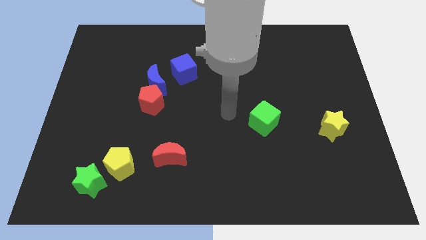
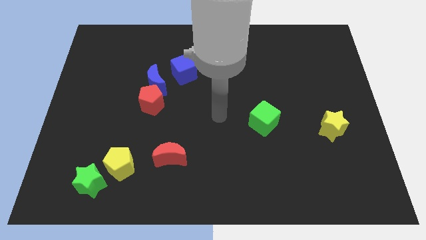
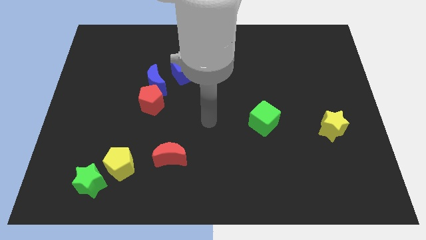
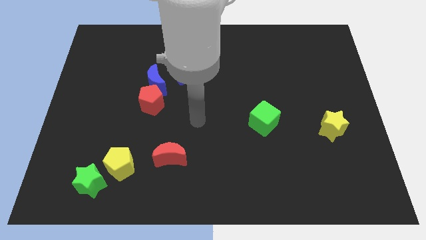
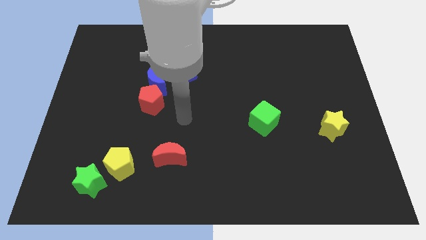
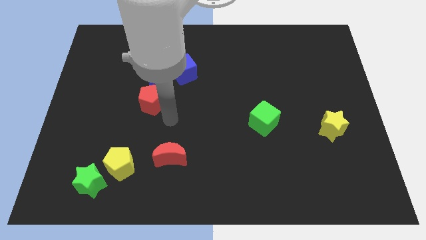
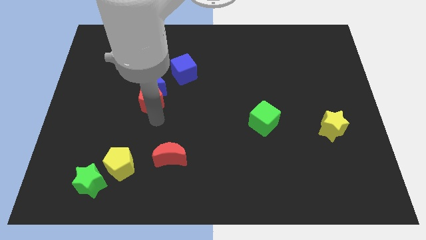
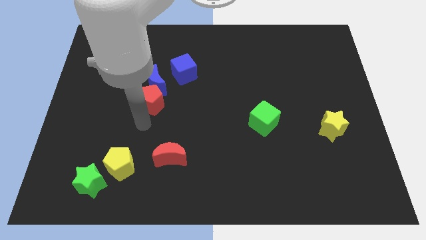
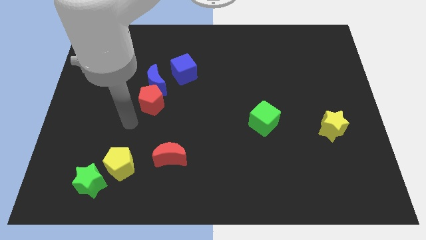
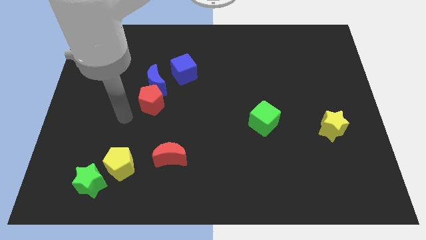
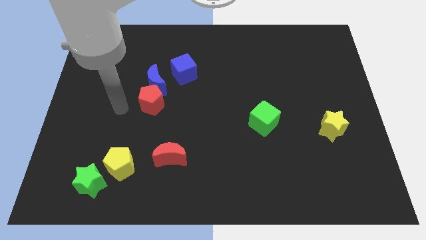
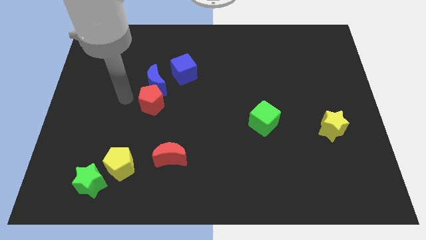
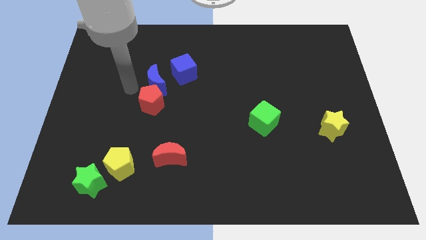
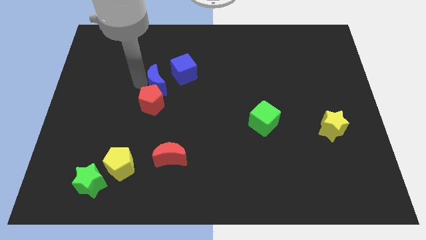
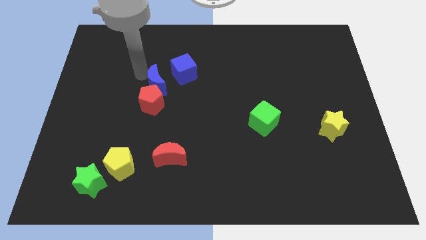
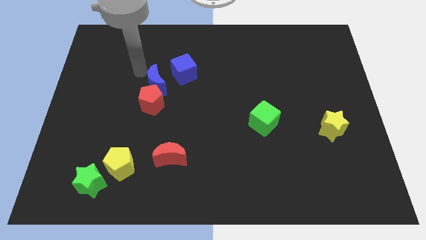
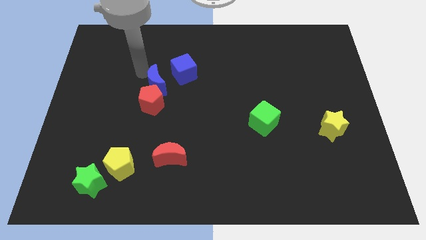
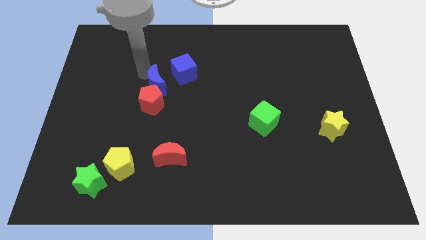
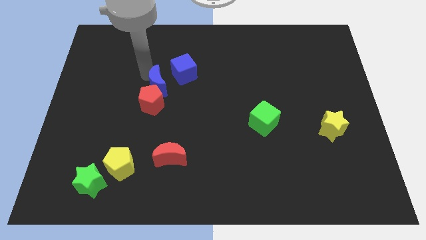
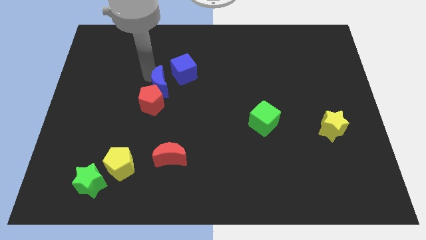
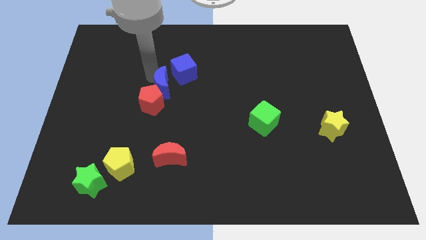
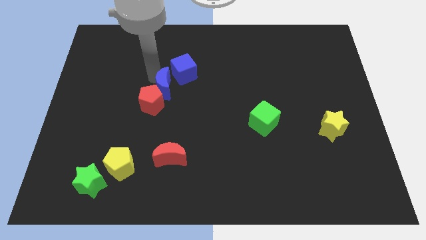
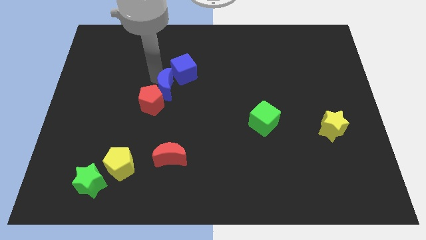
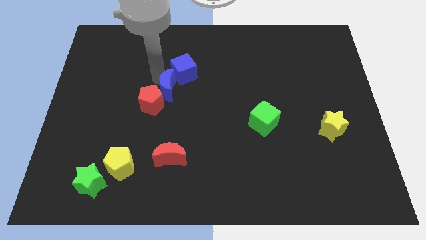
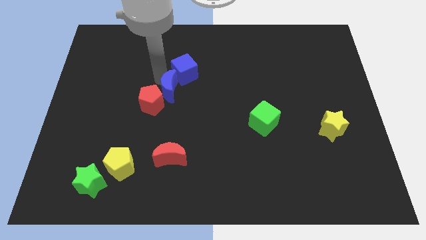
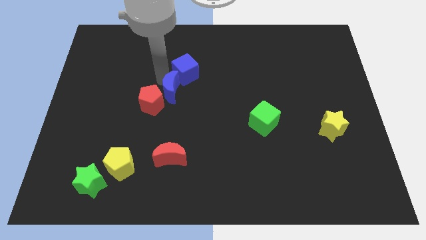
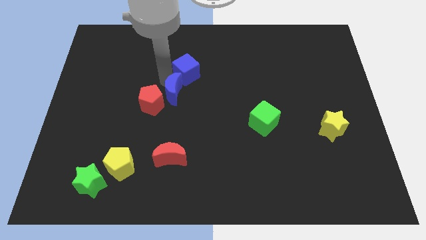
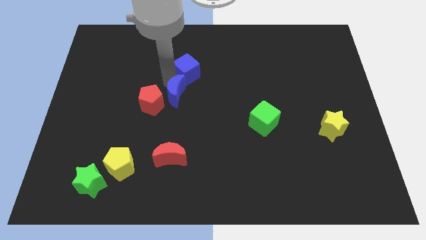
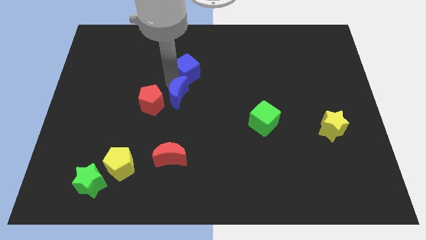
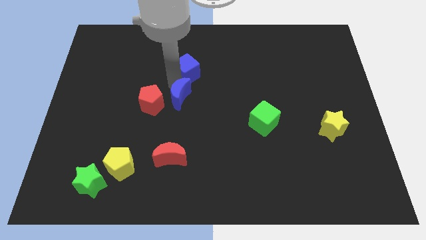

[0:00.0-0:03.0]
move the blue moon somewhat diagonally down and to the right

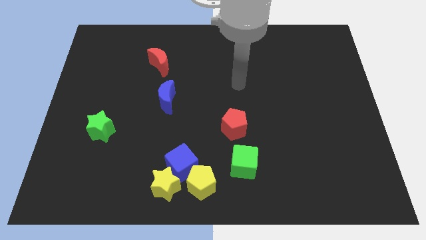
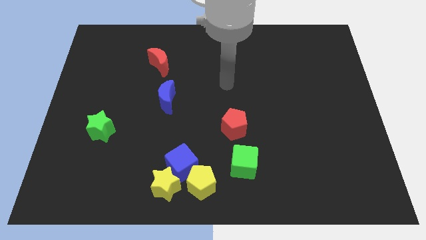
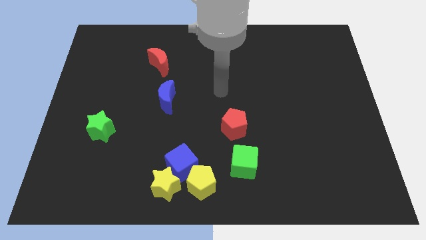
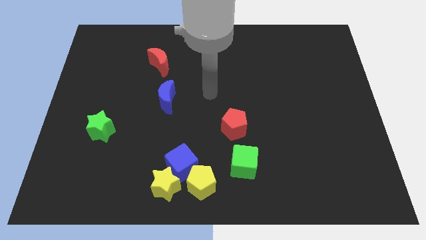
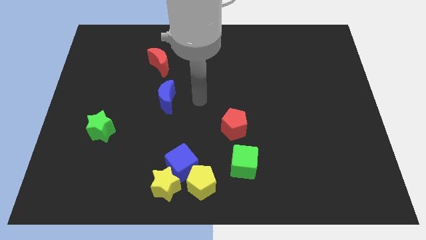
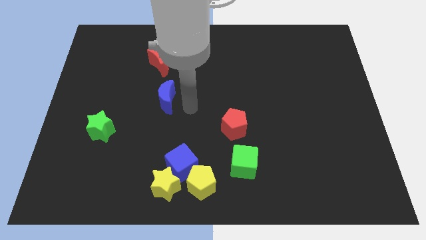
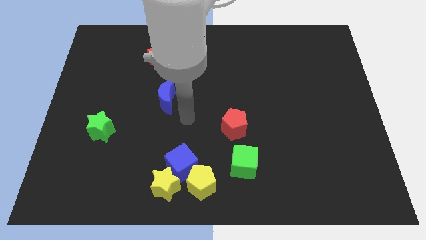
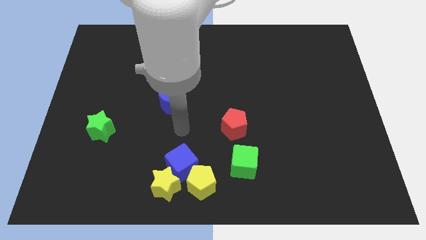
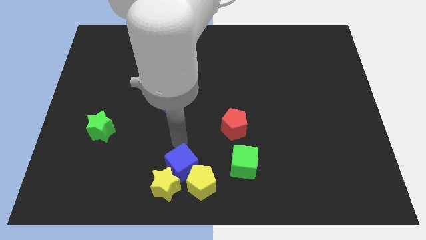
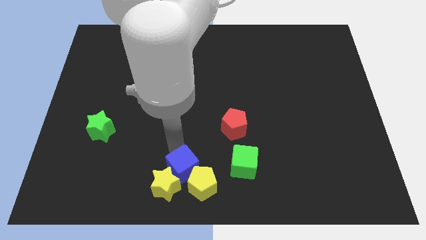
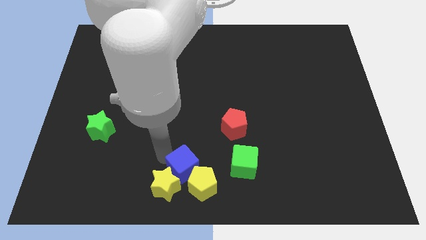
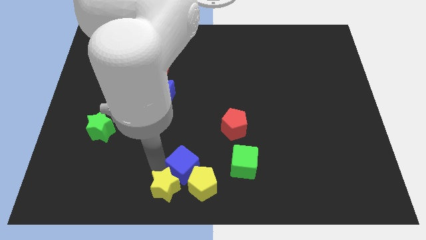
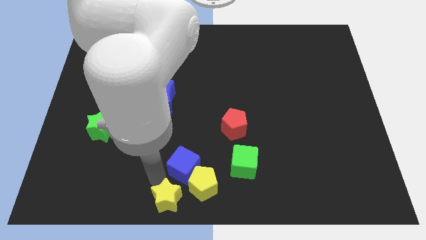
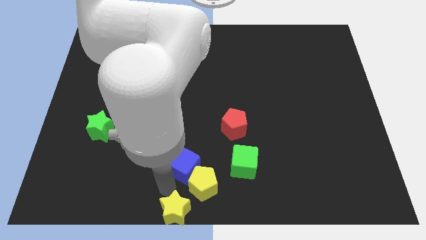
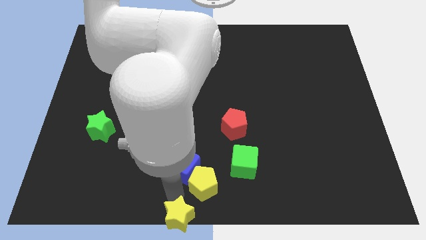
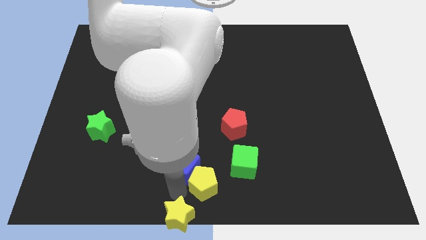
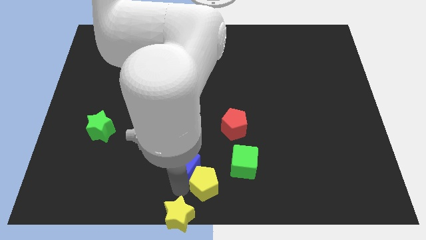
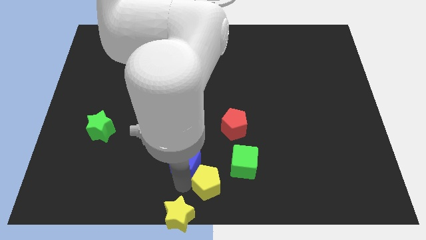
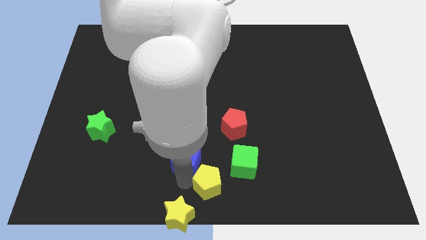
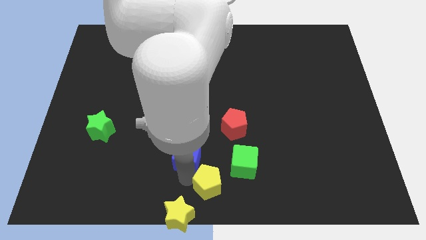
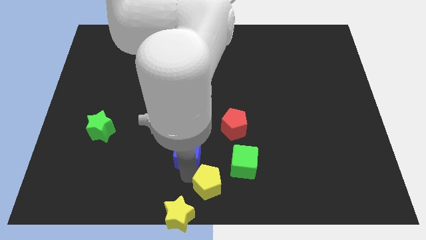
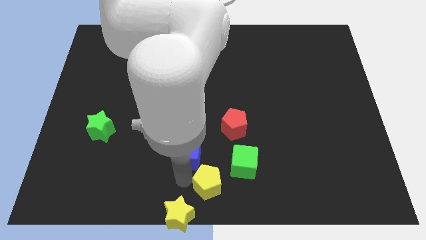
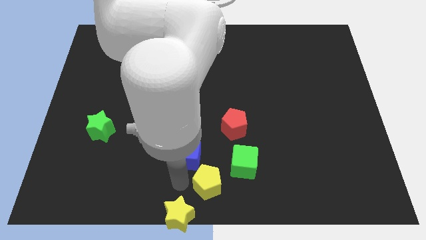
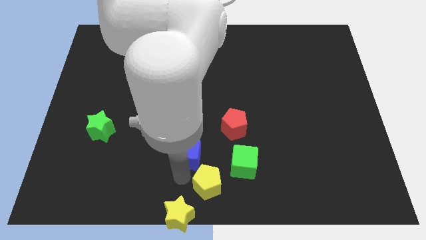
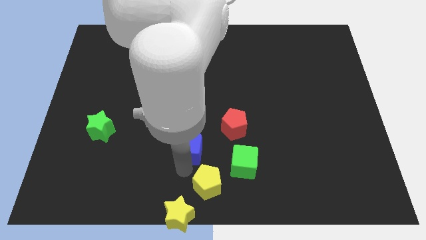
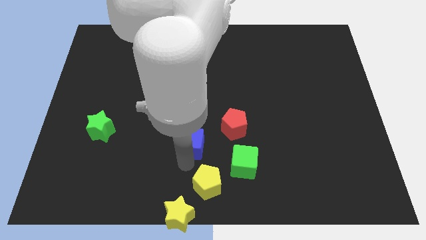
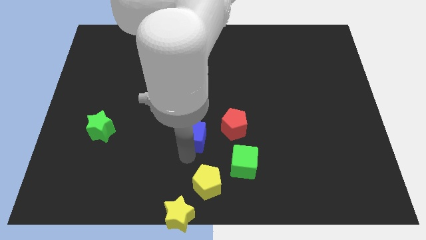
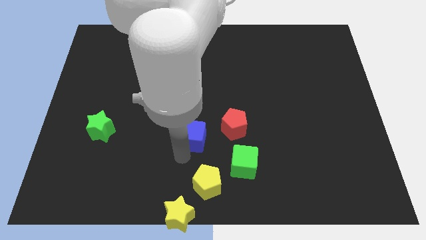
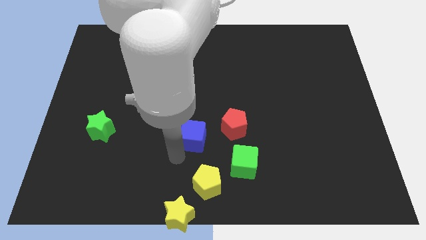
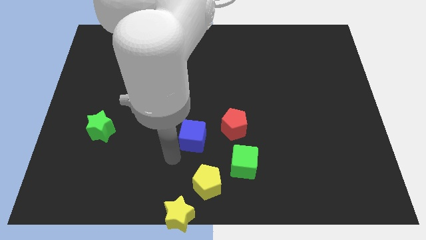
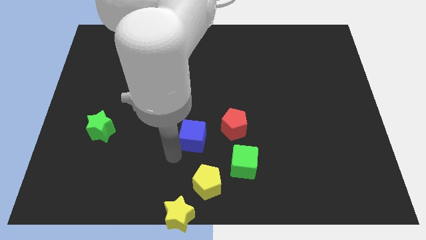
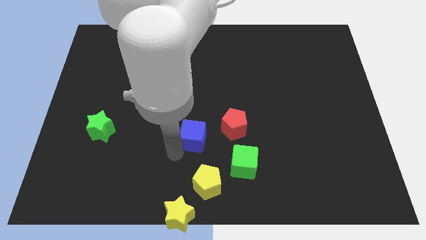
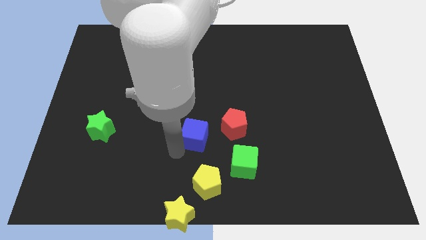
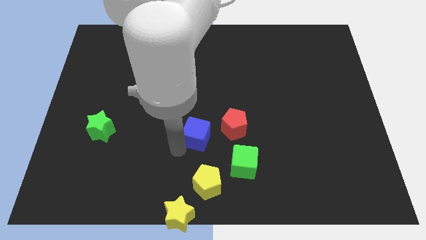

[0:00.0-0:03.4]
push the blue cube a bit upwards and then to the right

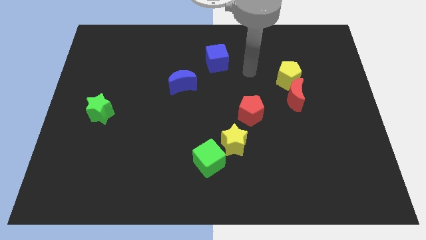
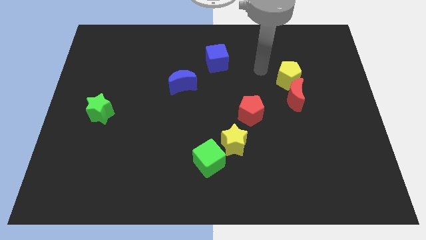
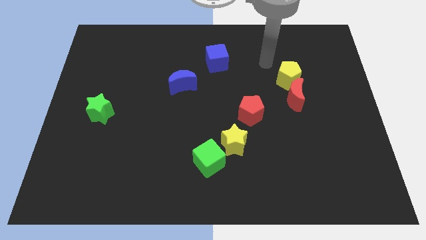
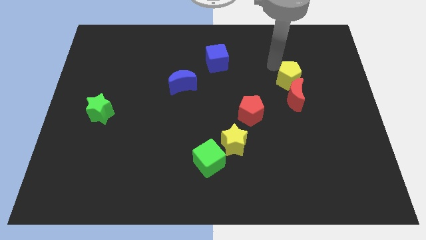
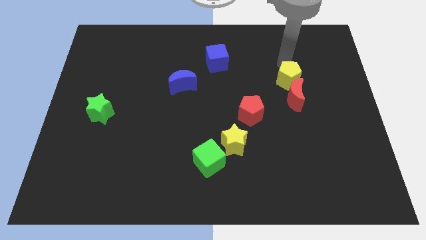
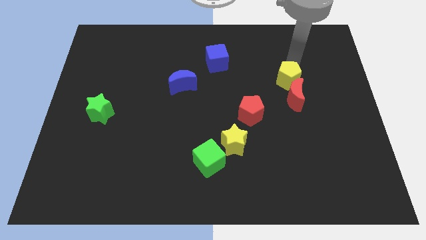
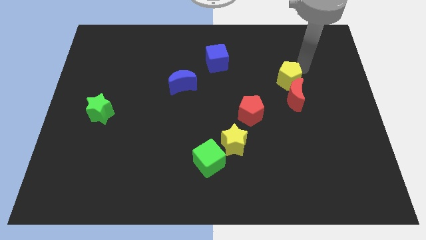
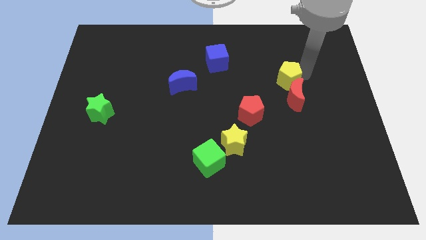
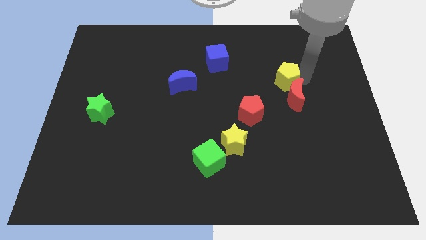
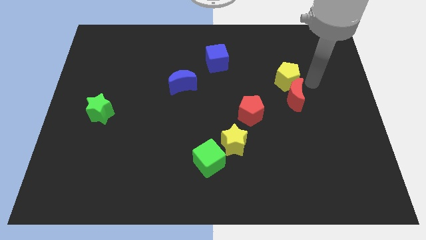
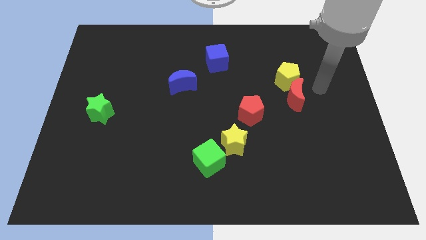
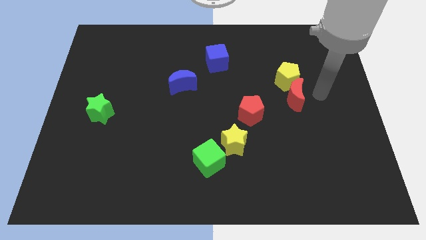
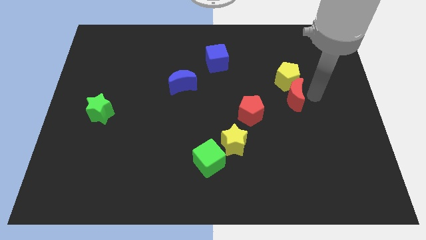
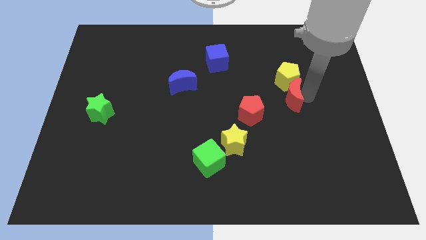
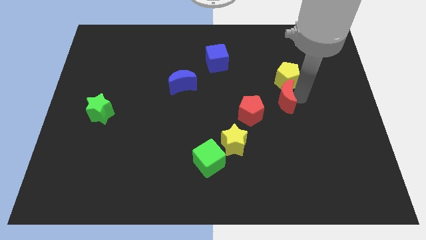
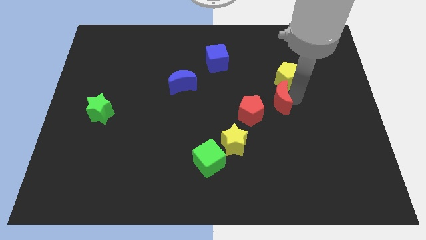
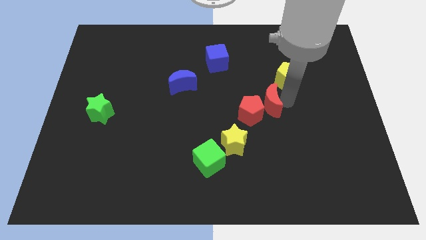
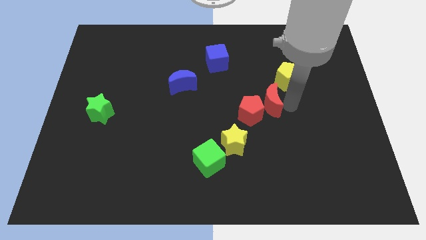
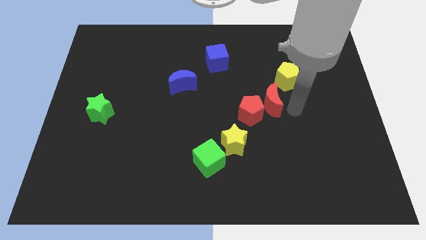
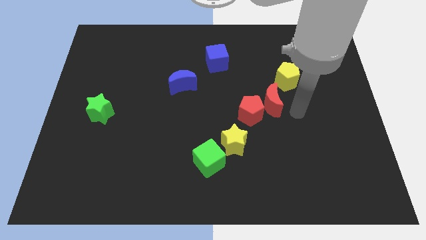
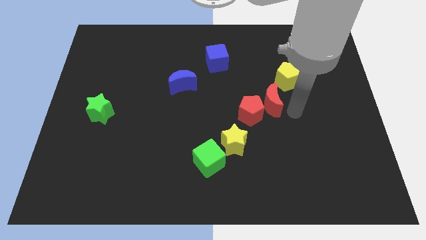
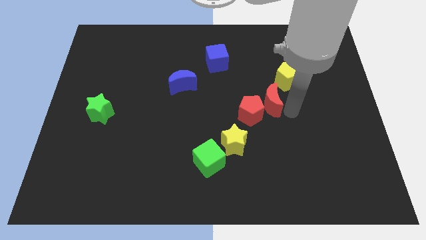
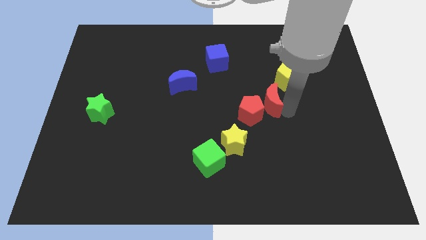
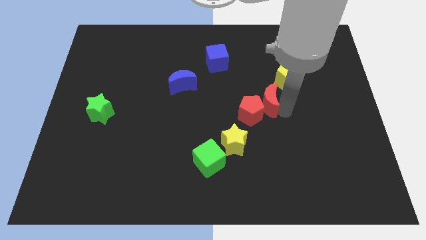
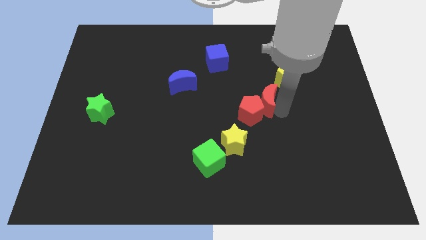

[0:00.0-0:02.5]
slightly slide the red moon to the left
